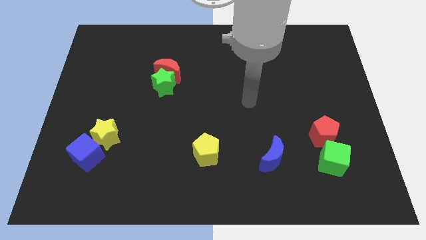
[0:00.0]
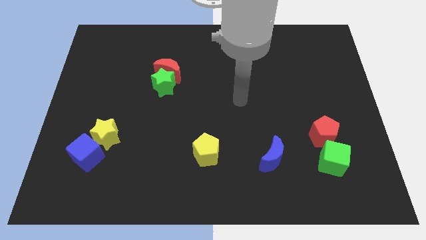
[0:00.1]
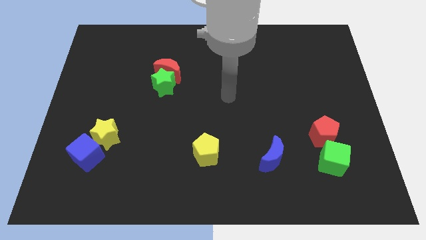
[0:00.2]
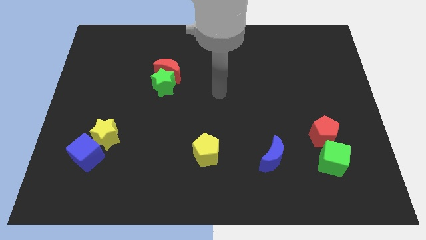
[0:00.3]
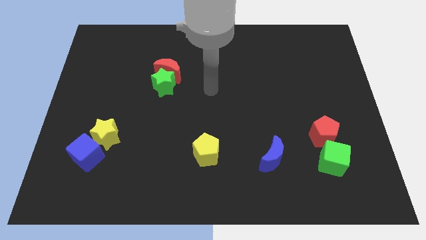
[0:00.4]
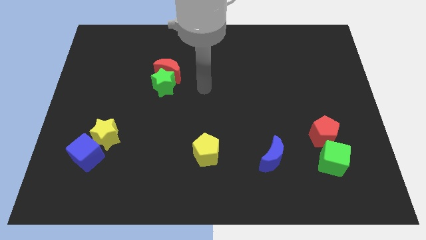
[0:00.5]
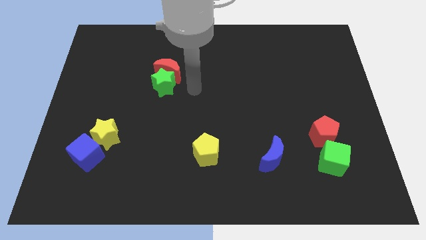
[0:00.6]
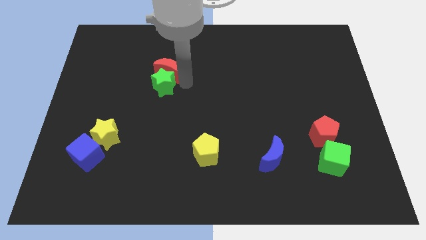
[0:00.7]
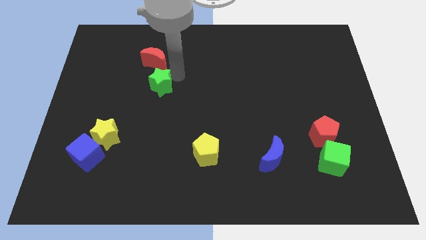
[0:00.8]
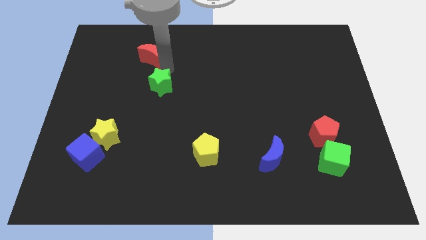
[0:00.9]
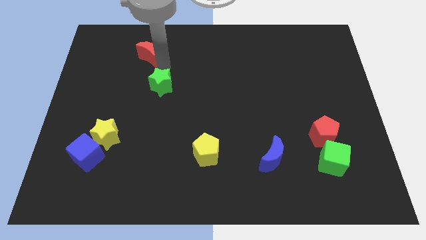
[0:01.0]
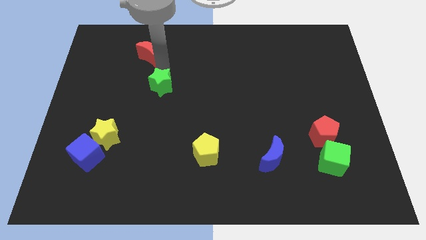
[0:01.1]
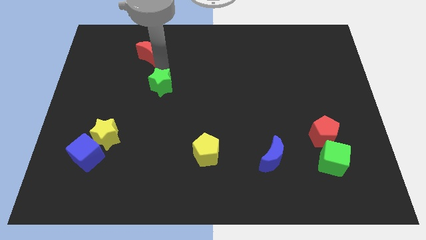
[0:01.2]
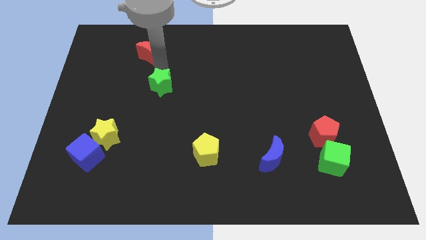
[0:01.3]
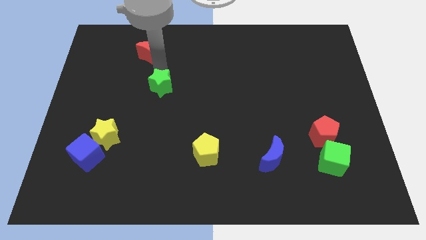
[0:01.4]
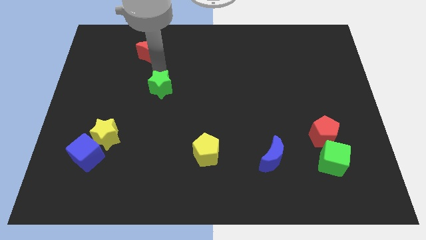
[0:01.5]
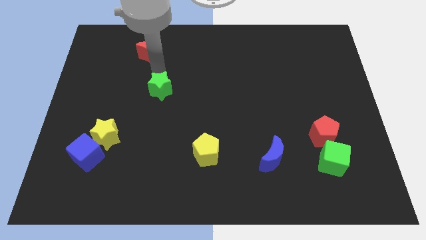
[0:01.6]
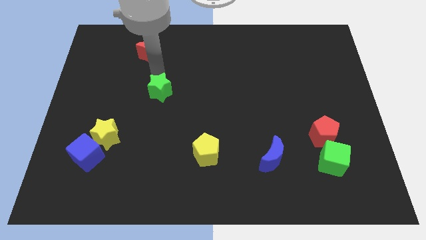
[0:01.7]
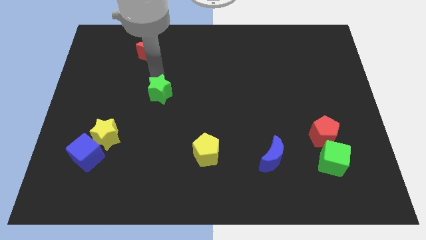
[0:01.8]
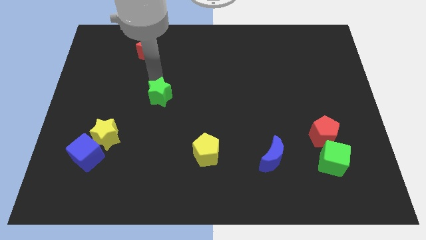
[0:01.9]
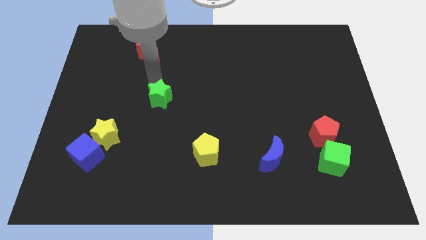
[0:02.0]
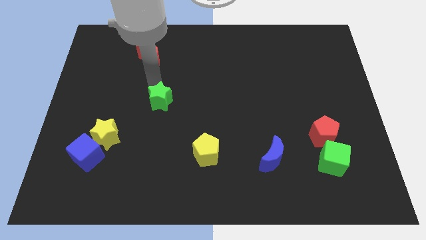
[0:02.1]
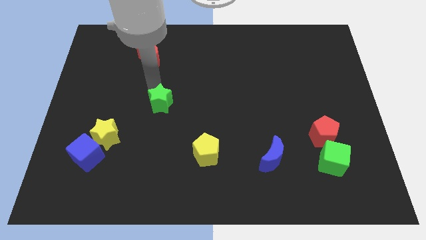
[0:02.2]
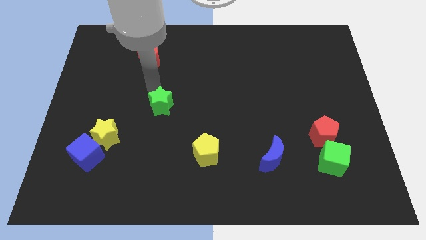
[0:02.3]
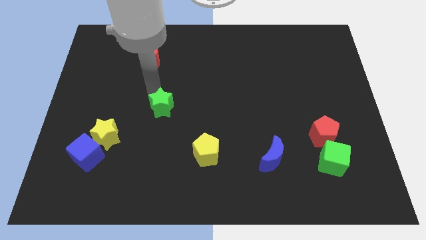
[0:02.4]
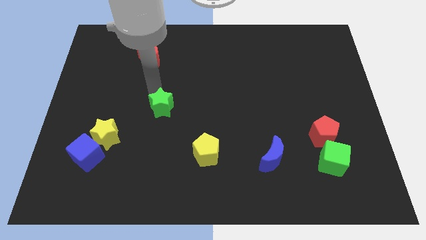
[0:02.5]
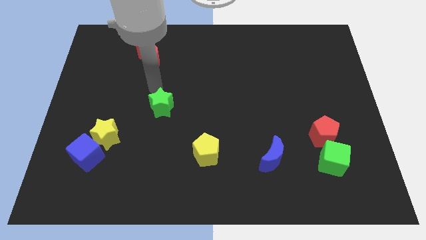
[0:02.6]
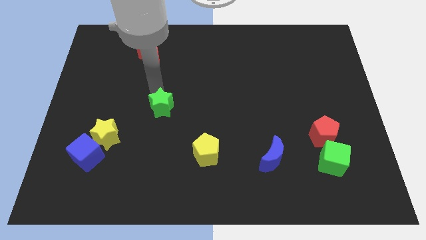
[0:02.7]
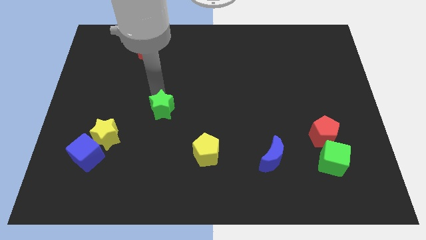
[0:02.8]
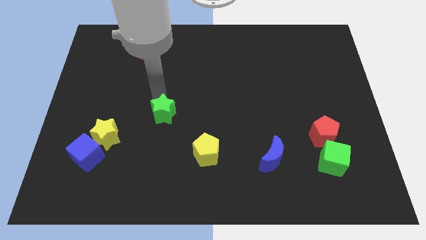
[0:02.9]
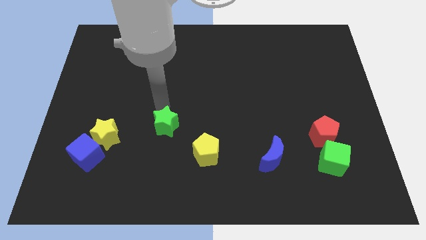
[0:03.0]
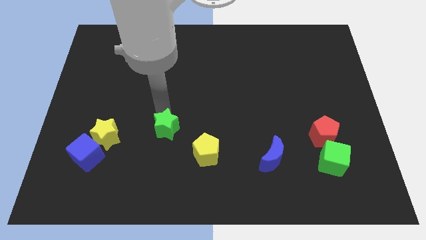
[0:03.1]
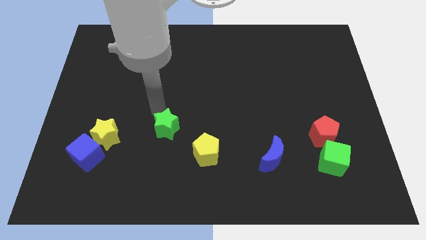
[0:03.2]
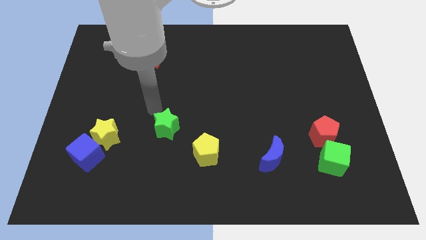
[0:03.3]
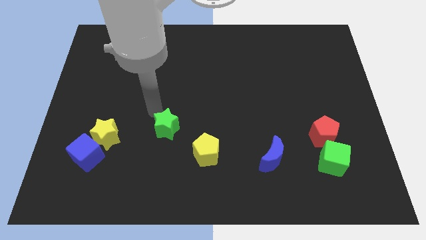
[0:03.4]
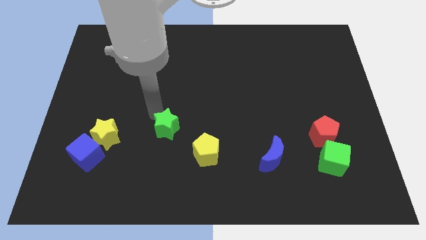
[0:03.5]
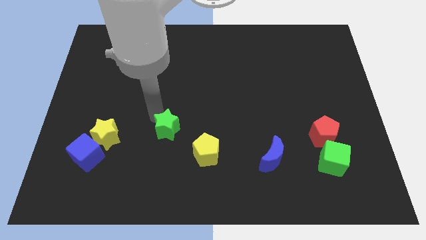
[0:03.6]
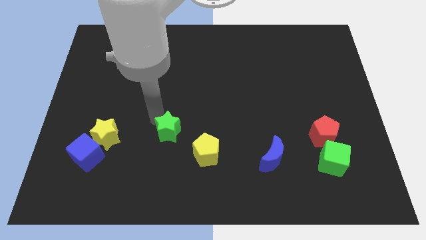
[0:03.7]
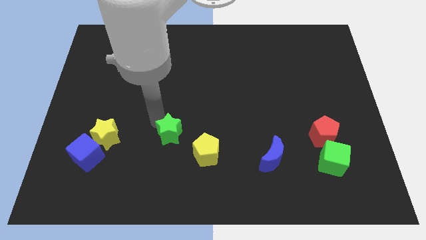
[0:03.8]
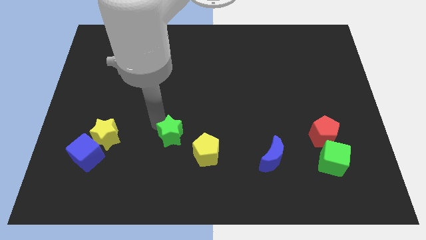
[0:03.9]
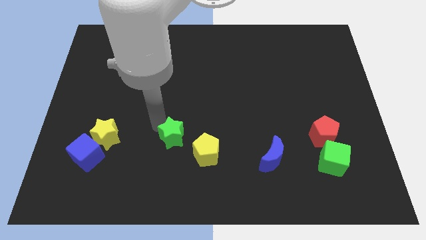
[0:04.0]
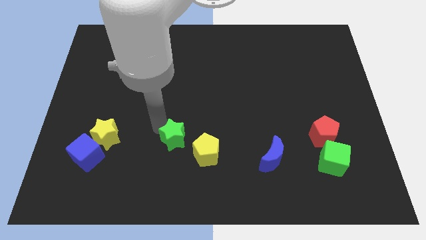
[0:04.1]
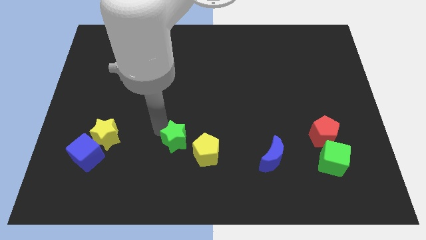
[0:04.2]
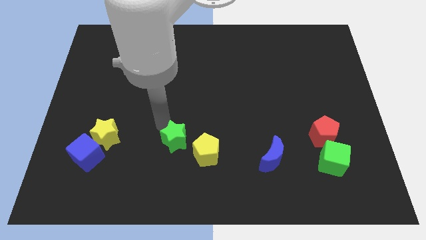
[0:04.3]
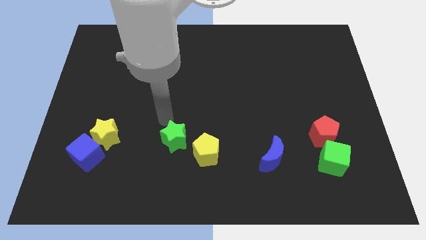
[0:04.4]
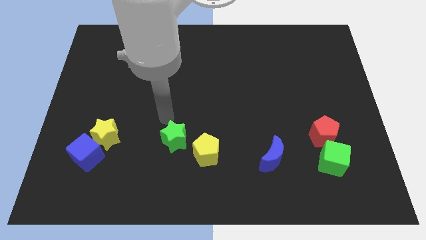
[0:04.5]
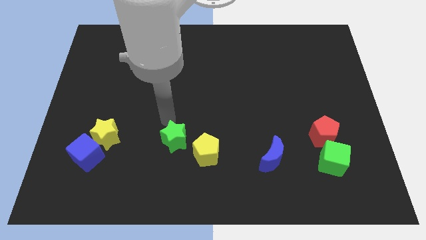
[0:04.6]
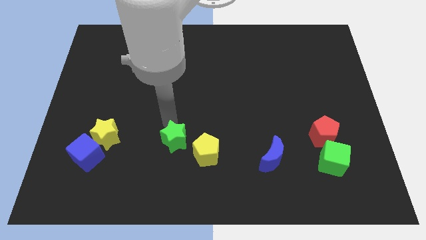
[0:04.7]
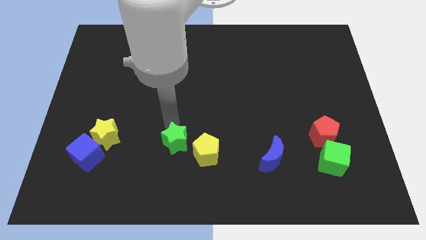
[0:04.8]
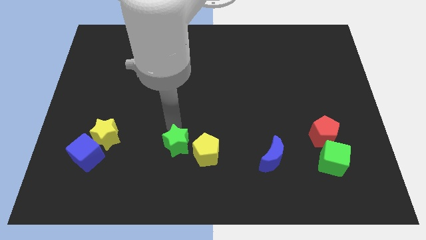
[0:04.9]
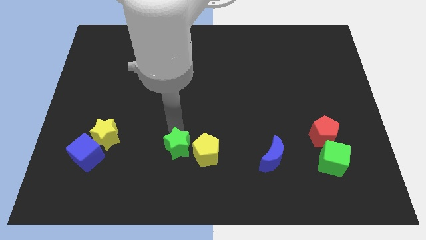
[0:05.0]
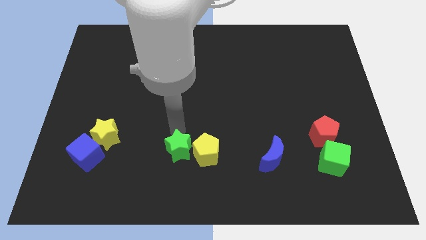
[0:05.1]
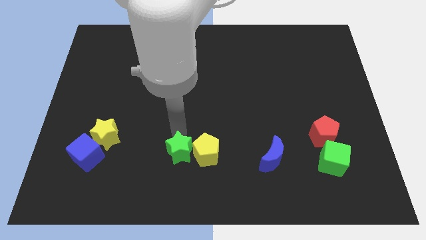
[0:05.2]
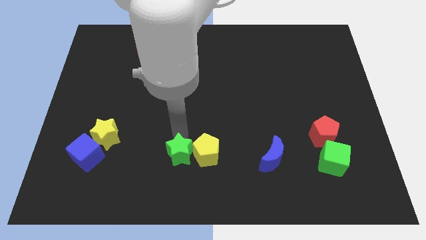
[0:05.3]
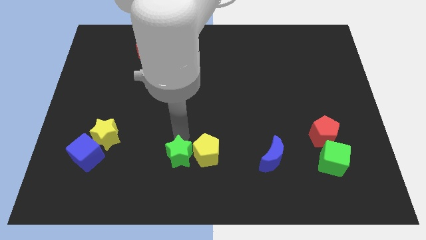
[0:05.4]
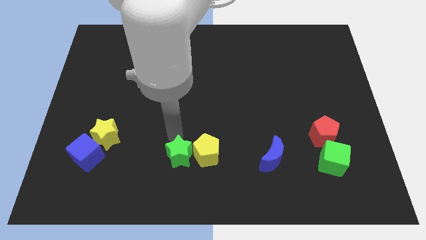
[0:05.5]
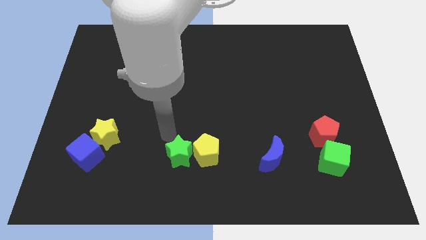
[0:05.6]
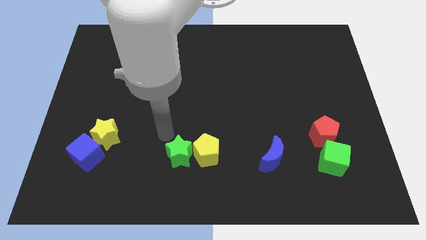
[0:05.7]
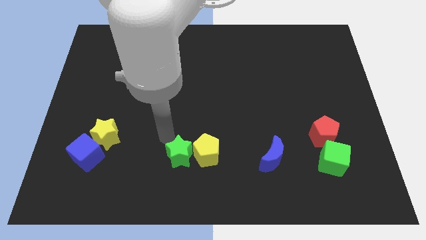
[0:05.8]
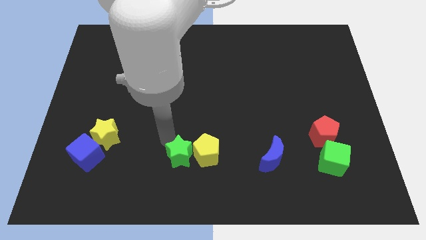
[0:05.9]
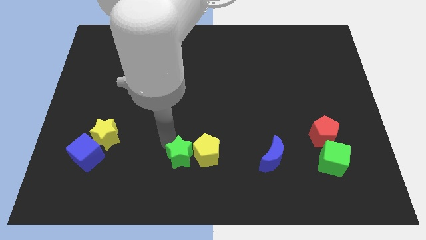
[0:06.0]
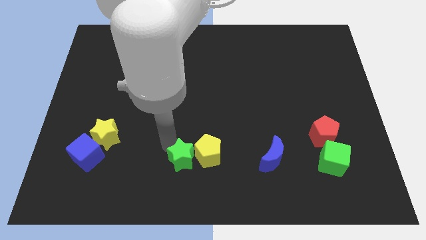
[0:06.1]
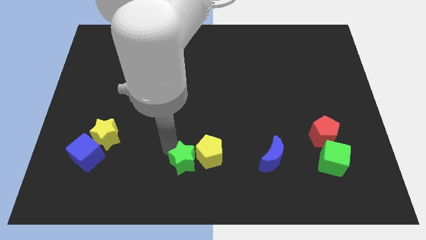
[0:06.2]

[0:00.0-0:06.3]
put the green star to the bottom side

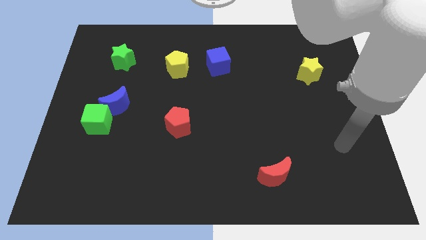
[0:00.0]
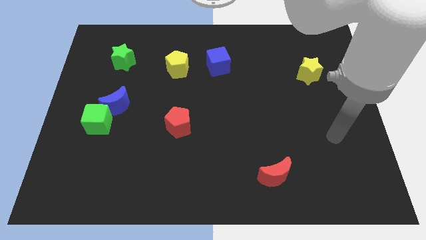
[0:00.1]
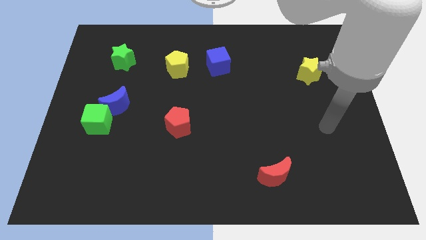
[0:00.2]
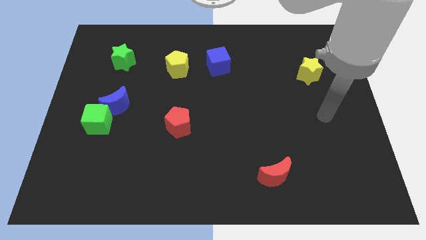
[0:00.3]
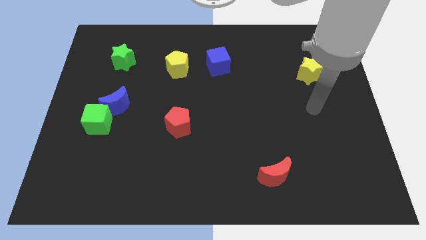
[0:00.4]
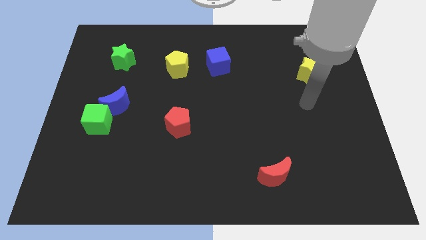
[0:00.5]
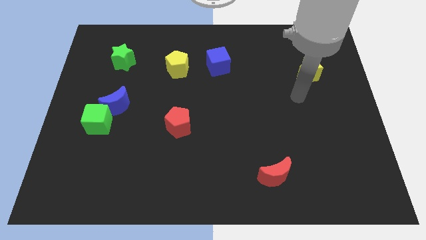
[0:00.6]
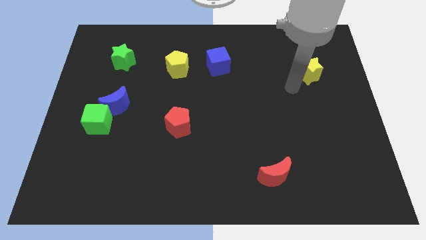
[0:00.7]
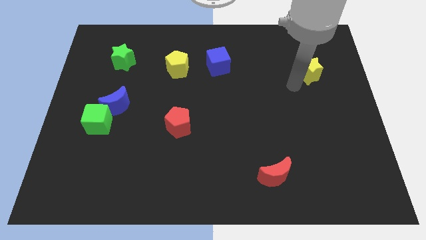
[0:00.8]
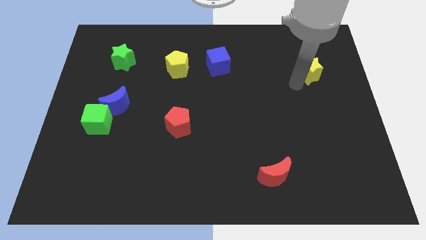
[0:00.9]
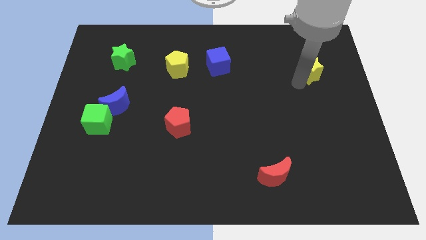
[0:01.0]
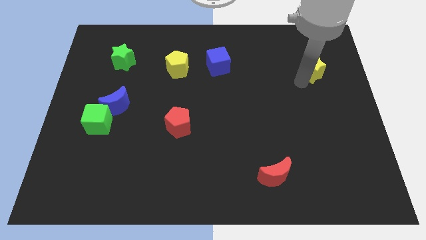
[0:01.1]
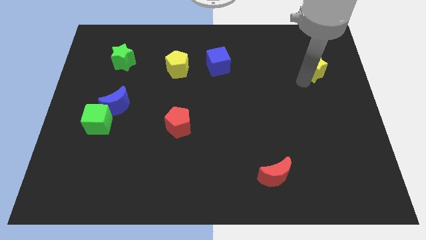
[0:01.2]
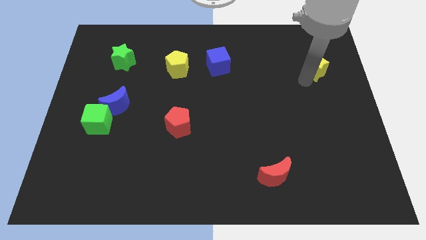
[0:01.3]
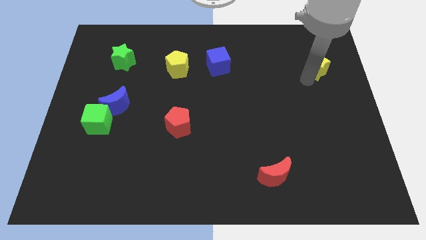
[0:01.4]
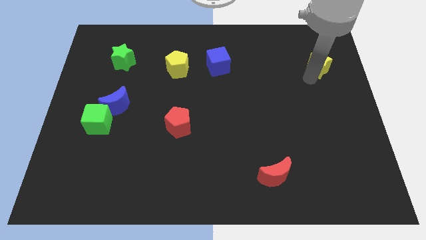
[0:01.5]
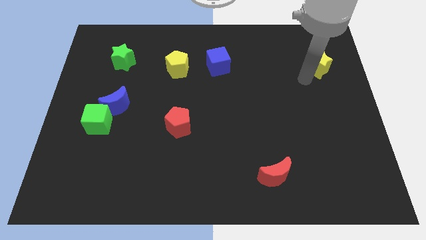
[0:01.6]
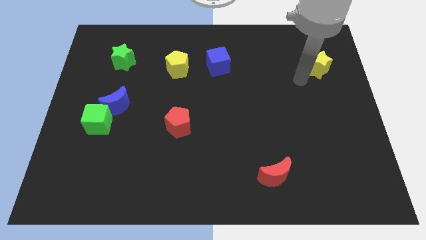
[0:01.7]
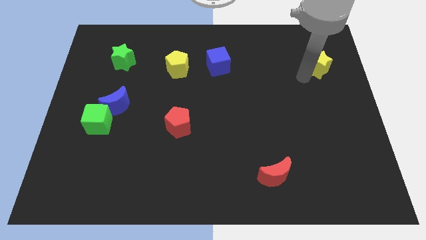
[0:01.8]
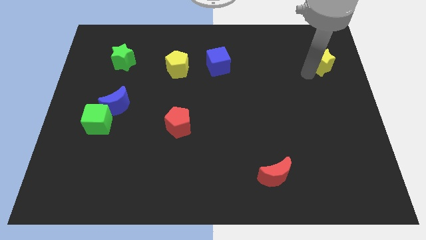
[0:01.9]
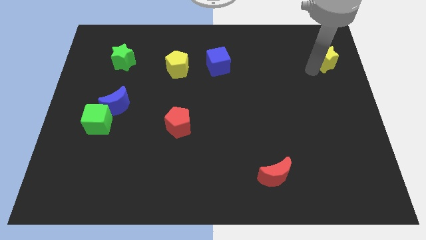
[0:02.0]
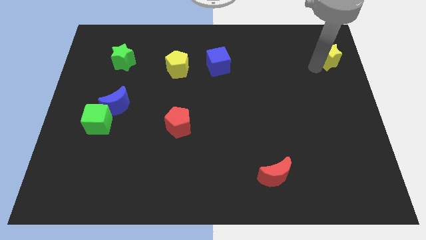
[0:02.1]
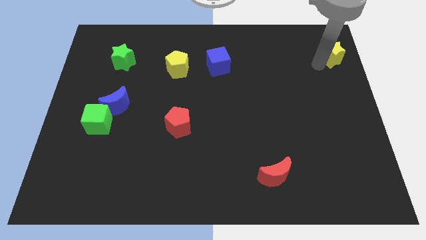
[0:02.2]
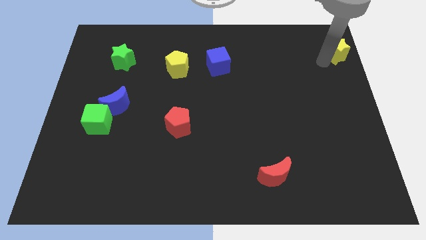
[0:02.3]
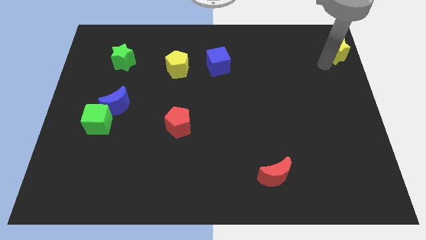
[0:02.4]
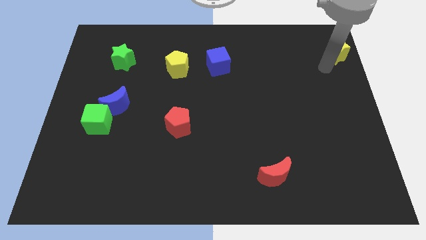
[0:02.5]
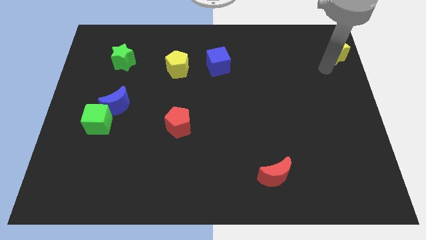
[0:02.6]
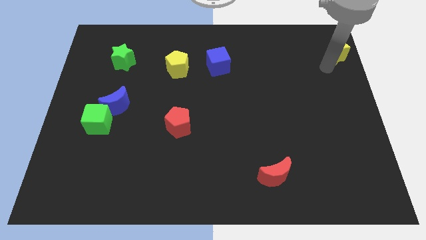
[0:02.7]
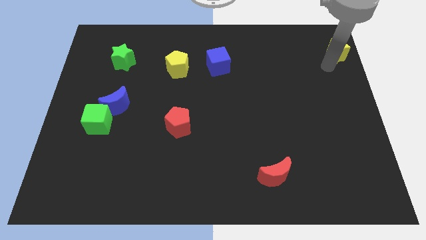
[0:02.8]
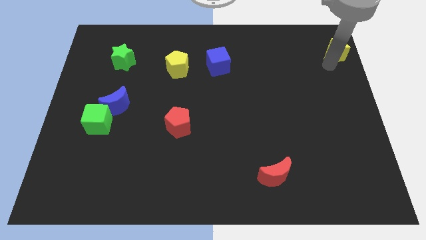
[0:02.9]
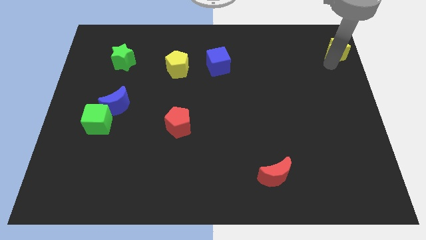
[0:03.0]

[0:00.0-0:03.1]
push the yellow star to the top right of the board
